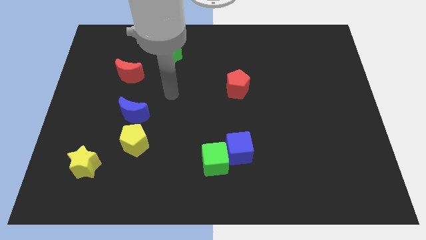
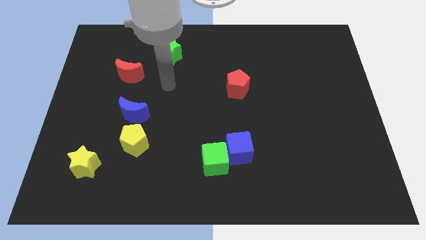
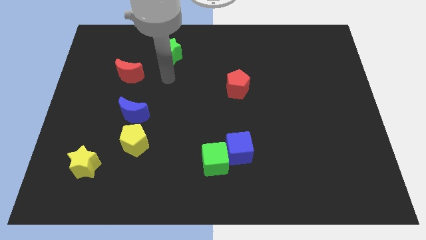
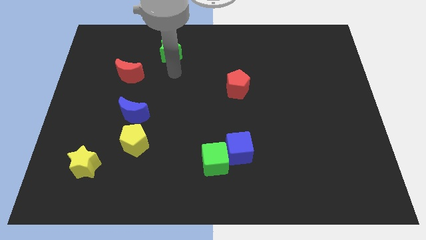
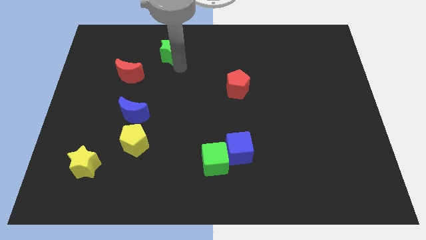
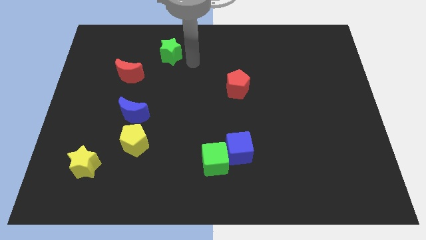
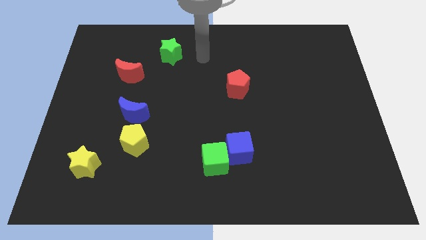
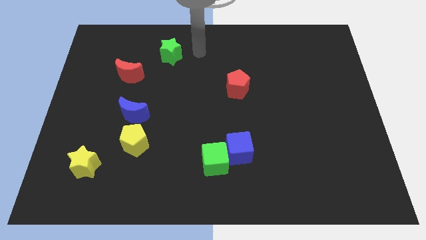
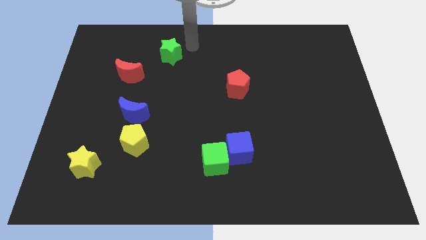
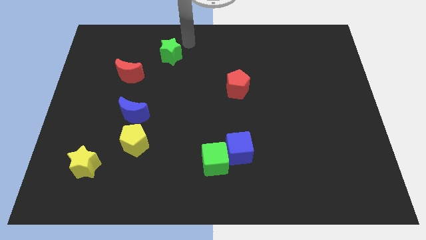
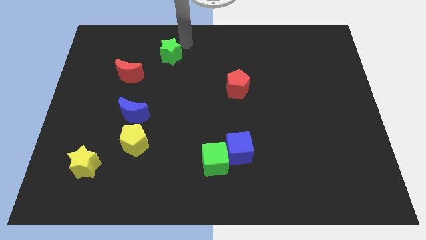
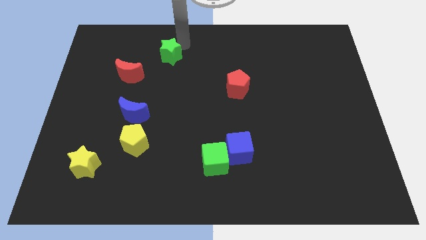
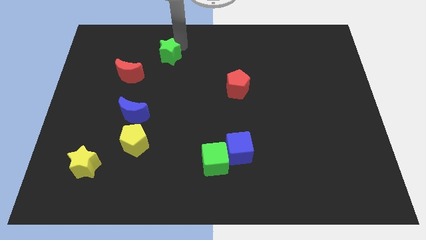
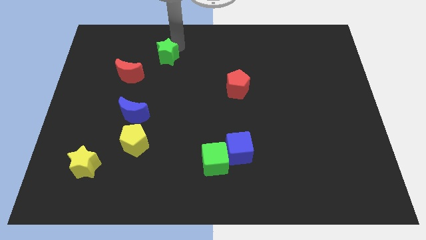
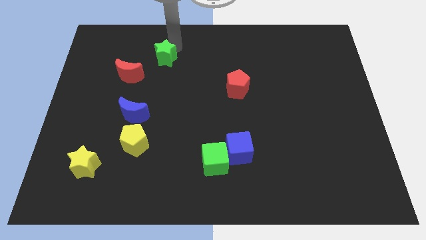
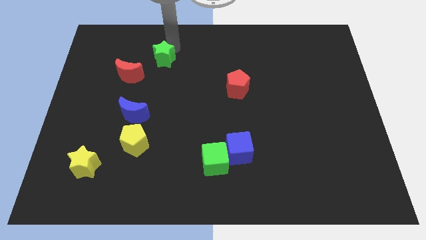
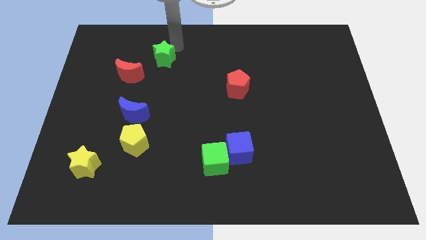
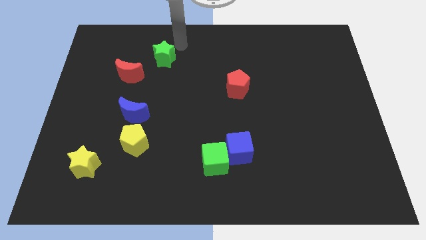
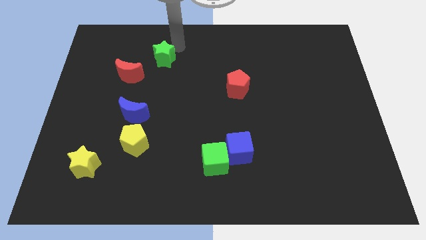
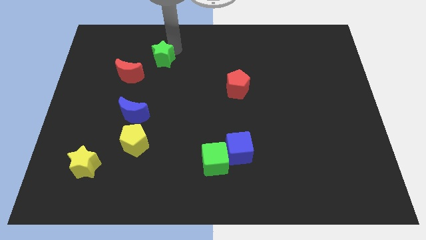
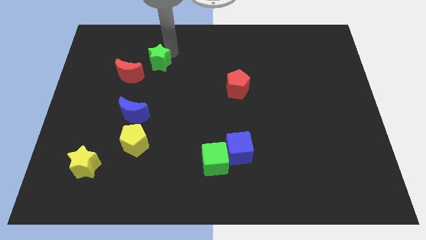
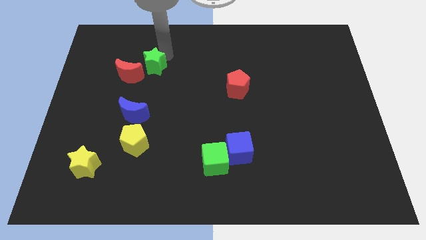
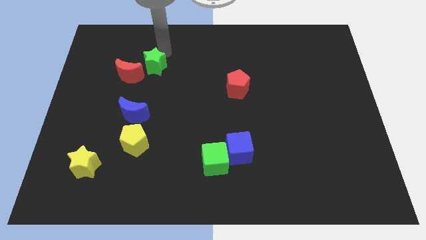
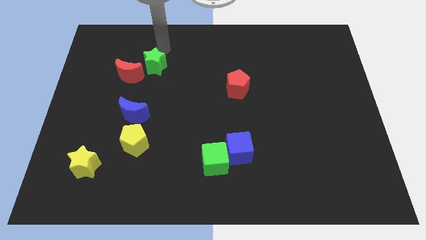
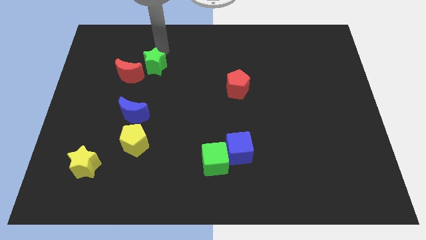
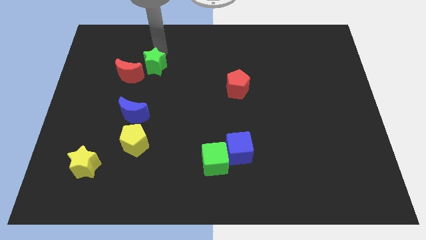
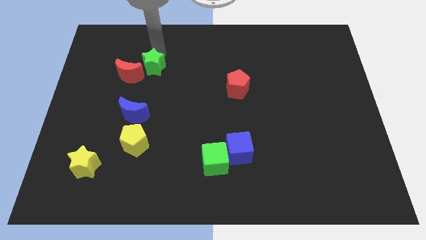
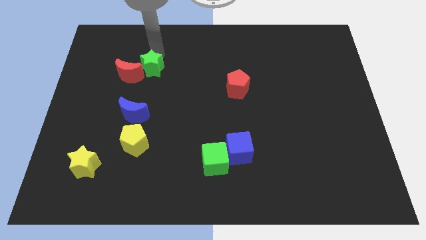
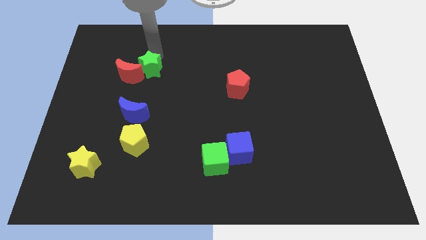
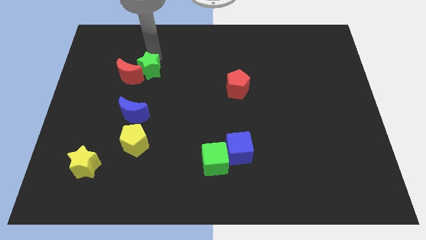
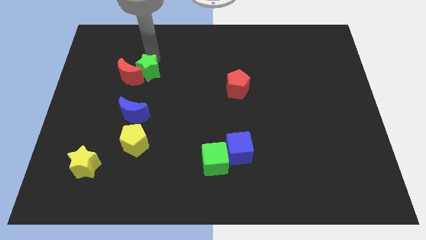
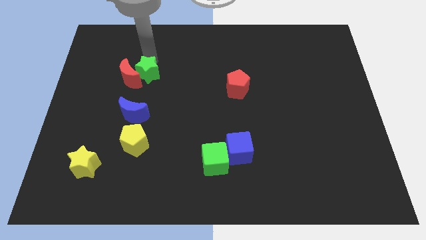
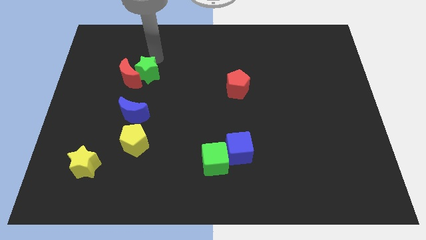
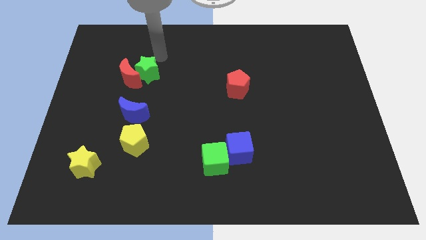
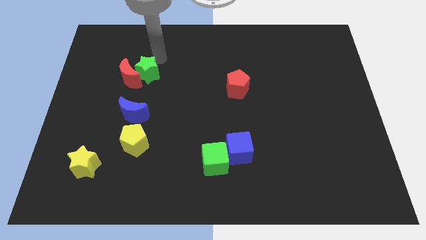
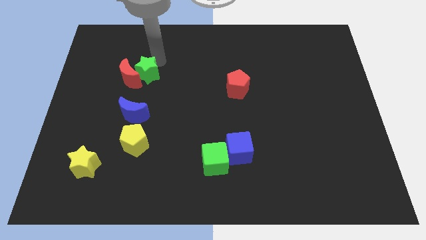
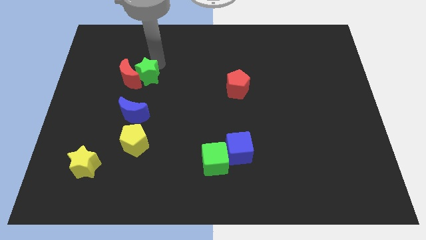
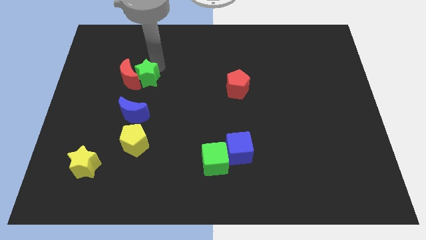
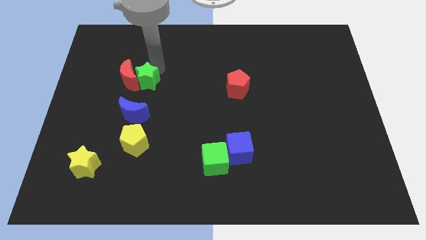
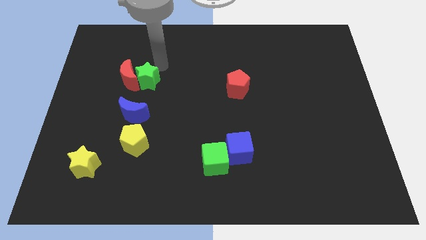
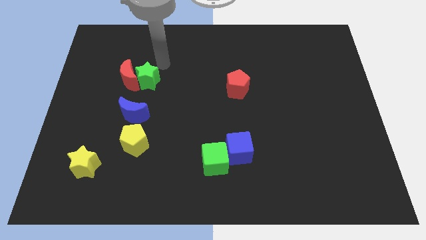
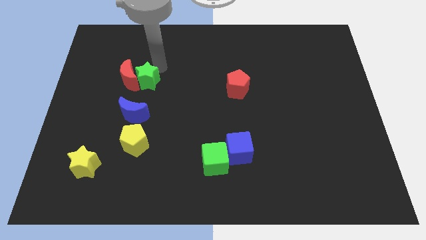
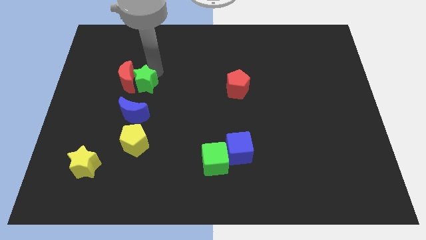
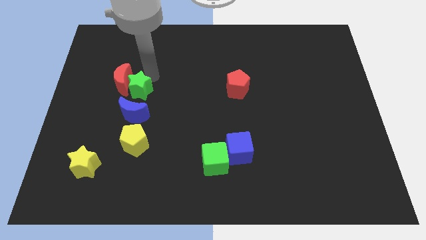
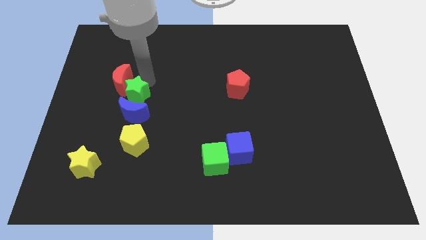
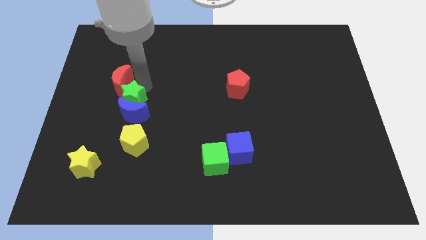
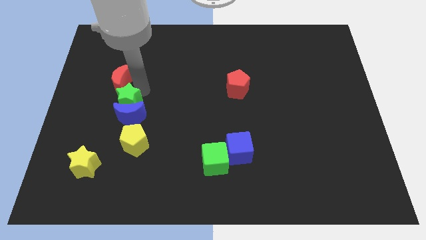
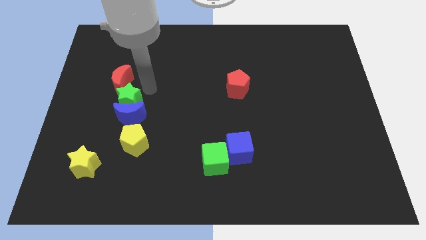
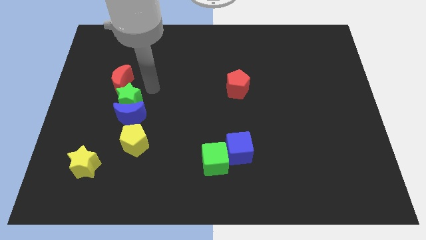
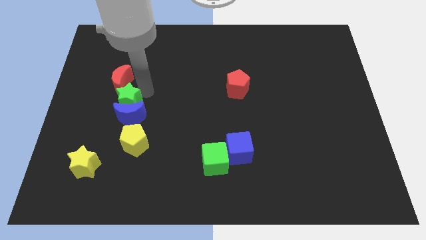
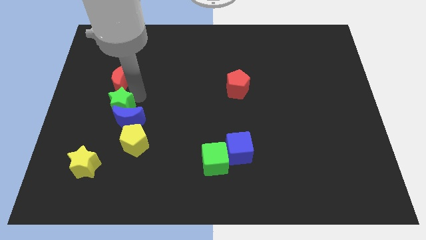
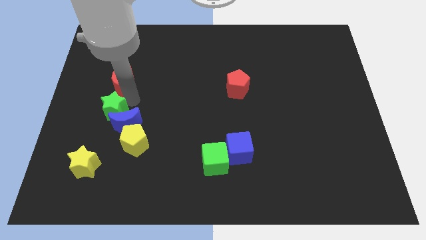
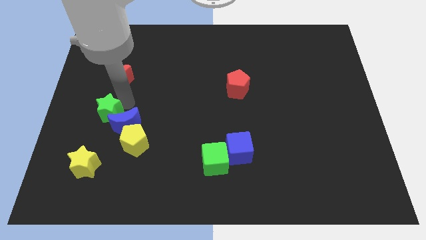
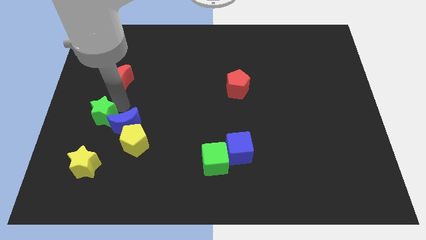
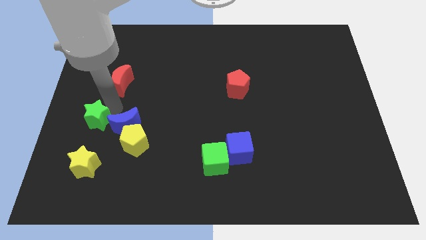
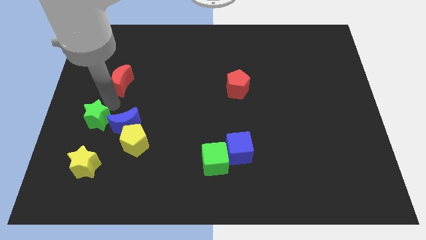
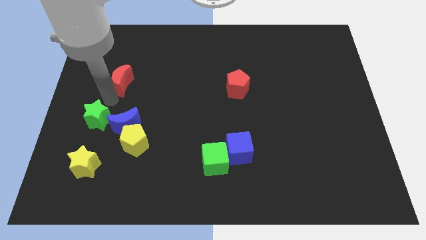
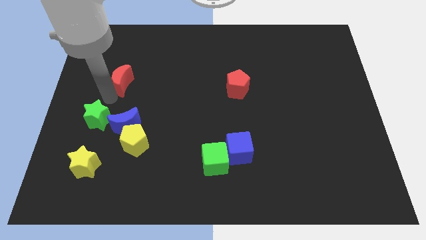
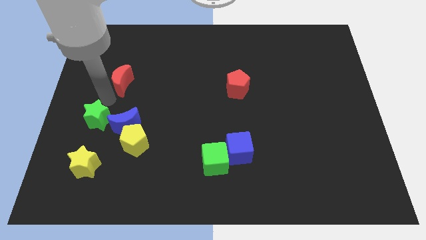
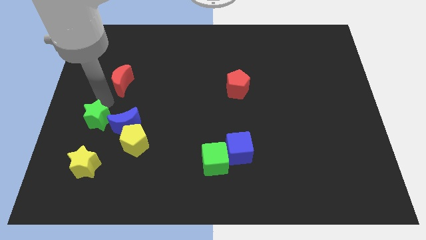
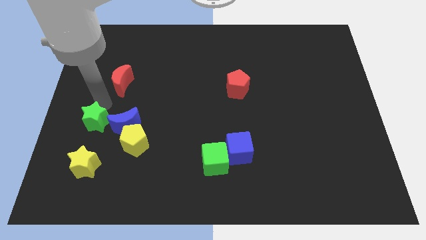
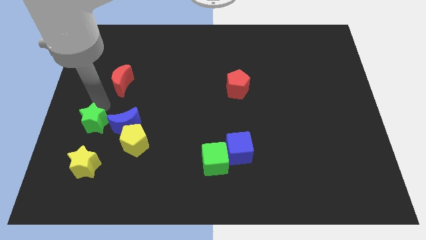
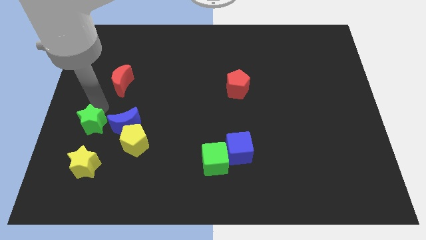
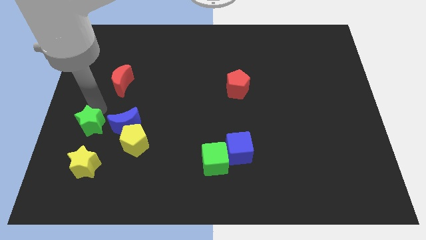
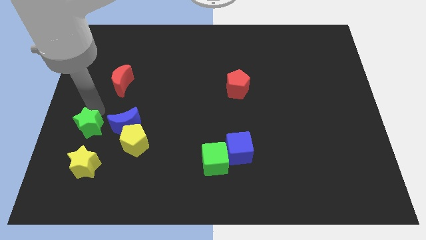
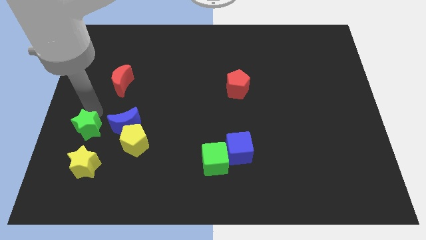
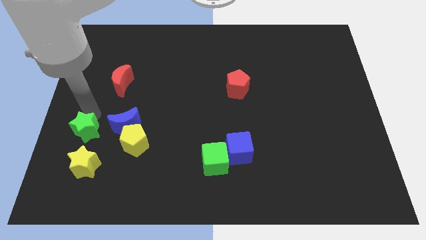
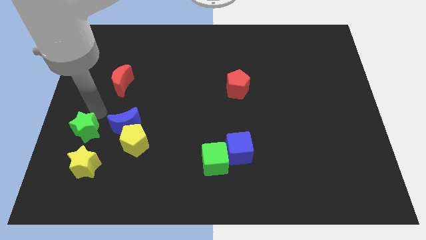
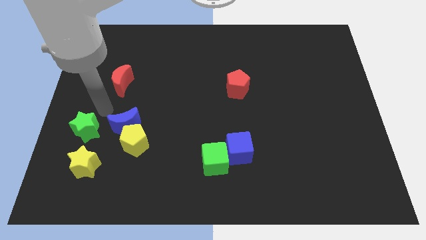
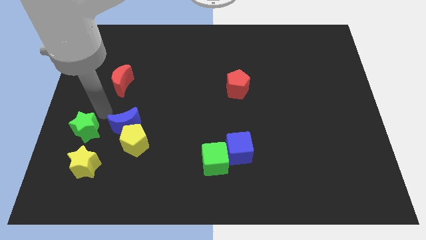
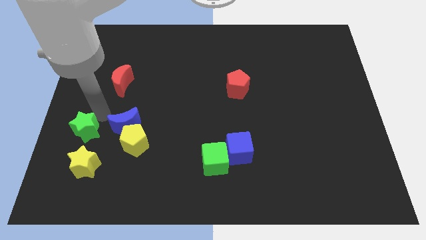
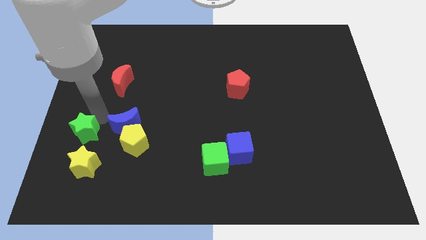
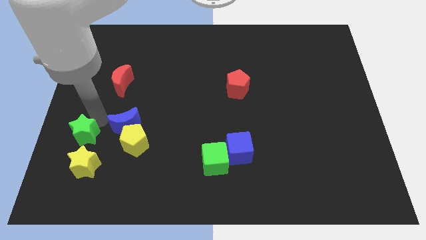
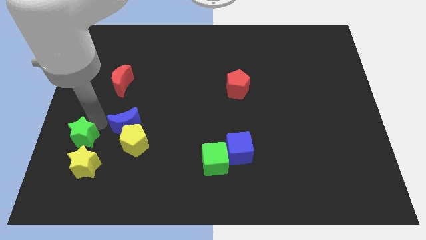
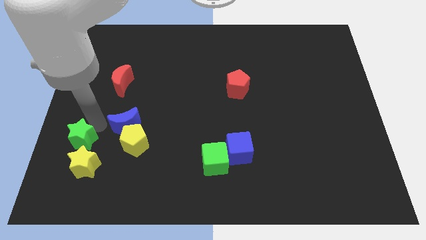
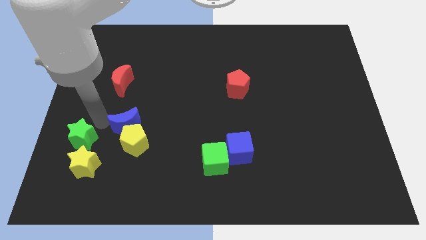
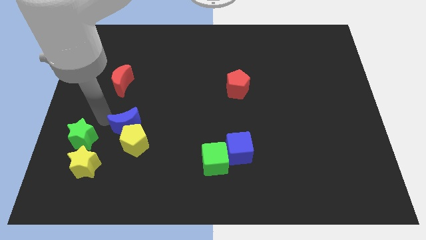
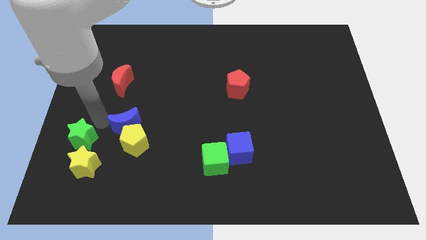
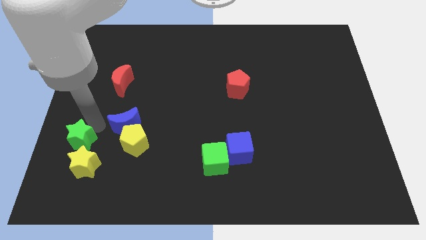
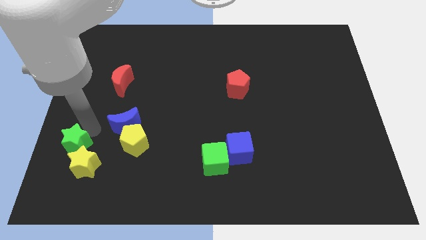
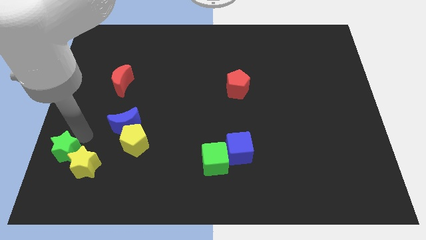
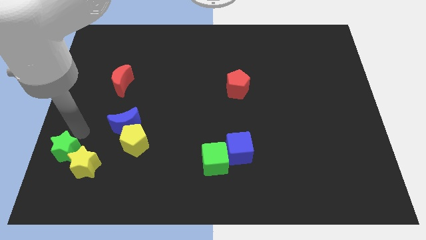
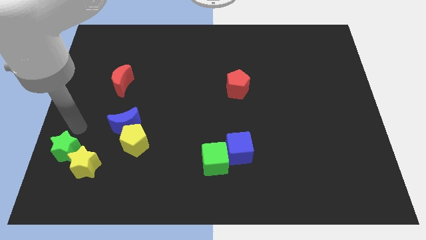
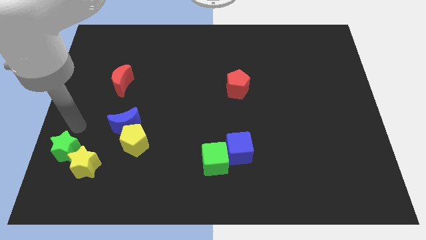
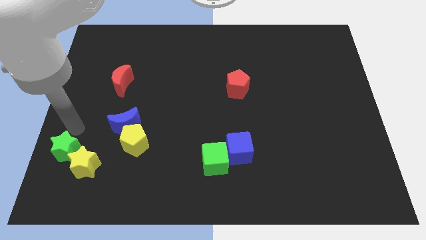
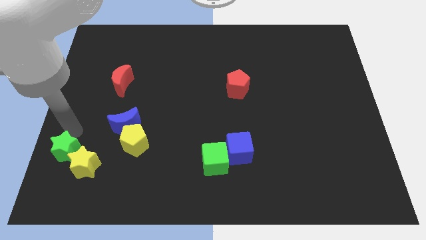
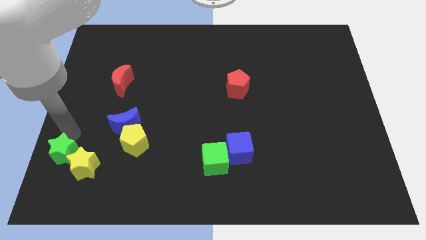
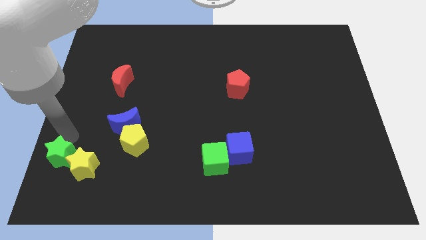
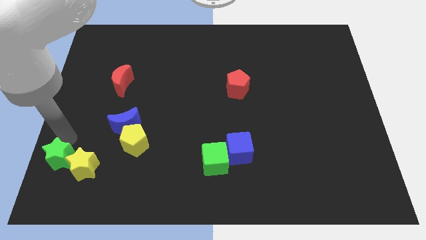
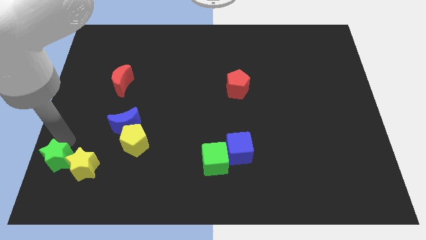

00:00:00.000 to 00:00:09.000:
push the green star to the bottom left corner
